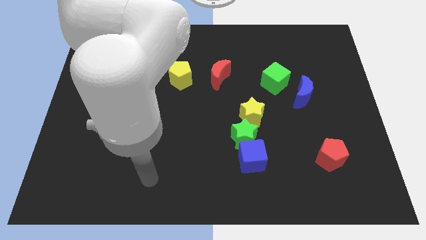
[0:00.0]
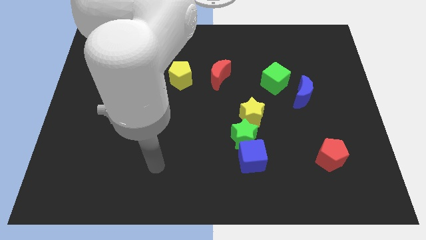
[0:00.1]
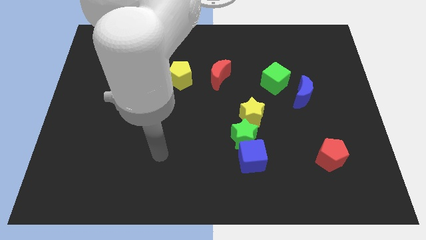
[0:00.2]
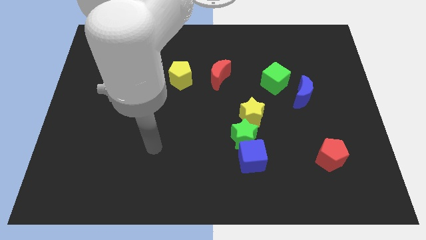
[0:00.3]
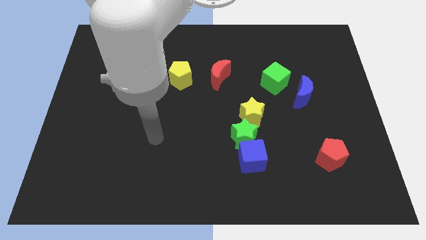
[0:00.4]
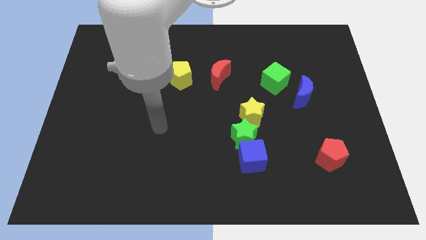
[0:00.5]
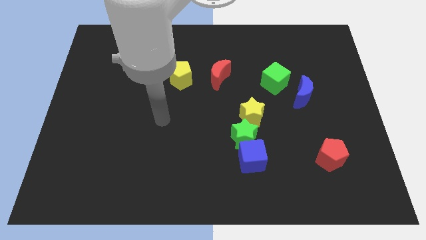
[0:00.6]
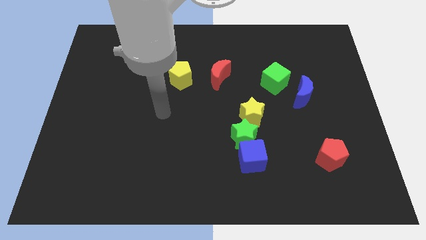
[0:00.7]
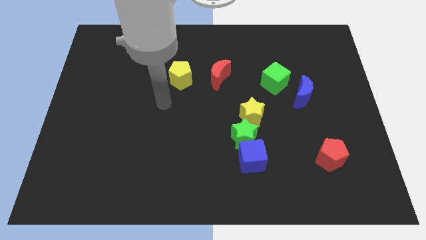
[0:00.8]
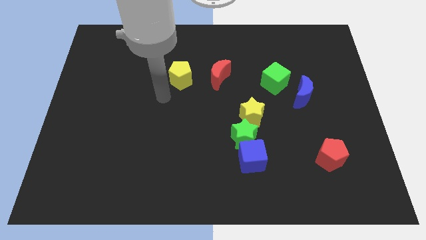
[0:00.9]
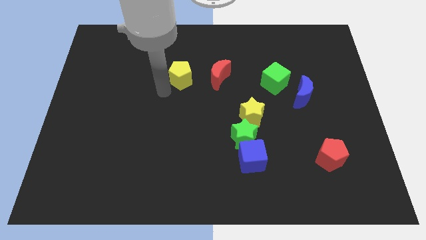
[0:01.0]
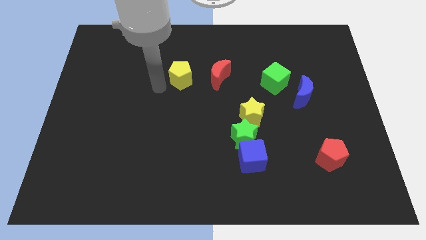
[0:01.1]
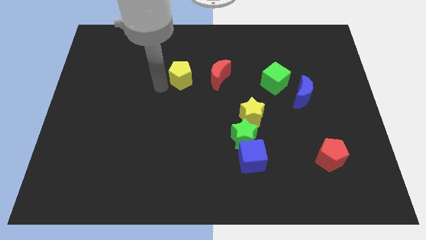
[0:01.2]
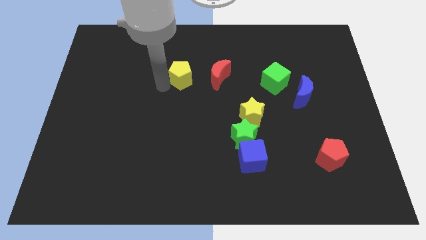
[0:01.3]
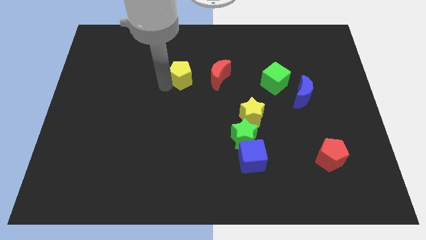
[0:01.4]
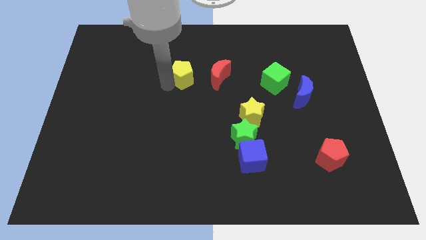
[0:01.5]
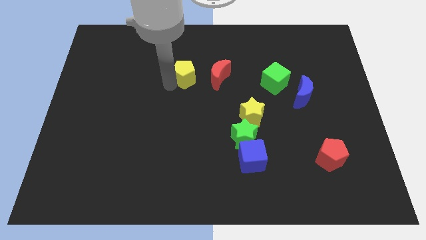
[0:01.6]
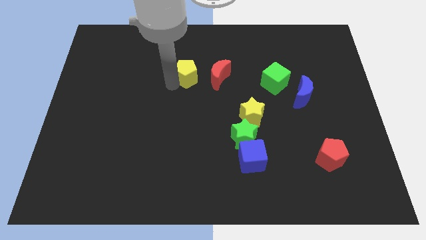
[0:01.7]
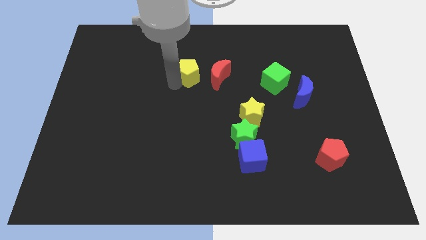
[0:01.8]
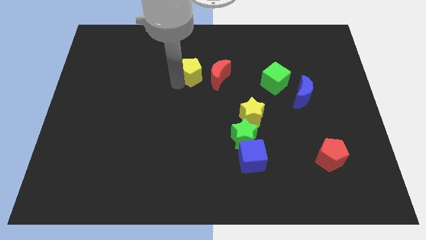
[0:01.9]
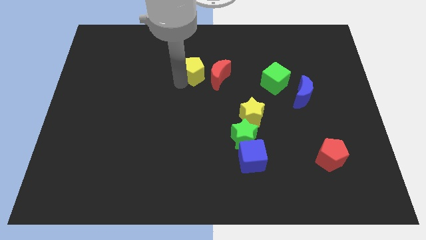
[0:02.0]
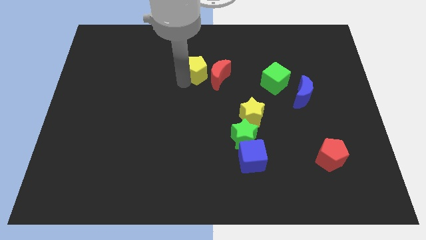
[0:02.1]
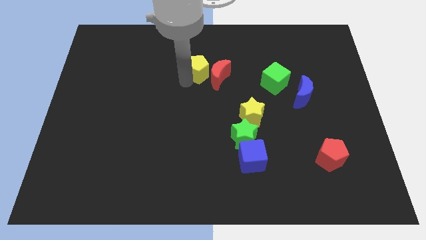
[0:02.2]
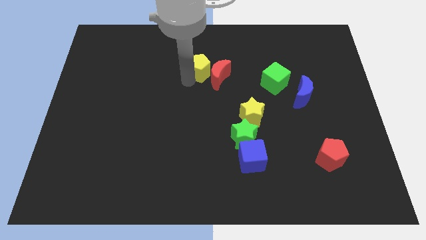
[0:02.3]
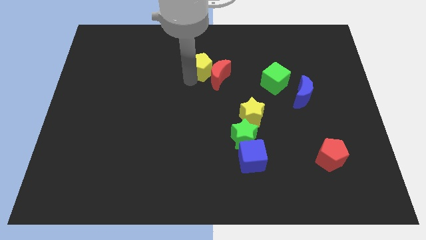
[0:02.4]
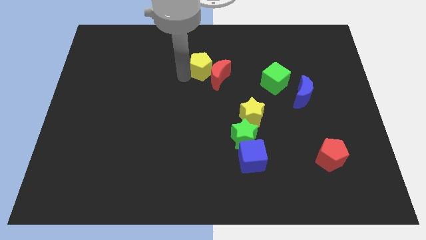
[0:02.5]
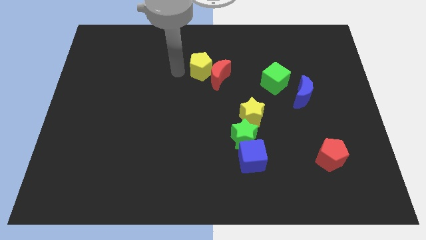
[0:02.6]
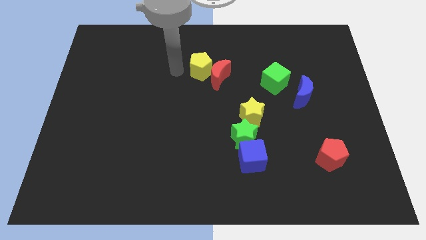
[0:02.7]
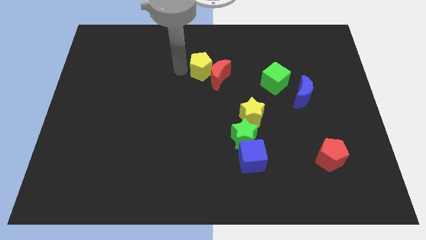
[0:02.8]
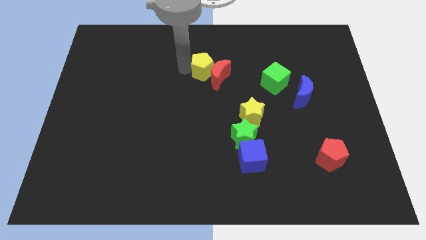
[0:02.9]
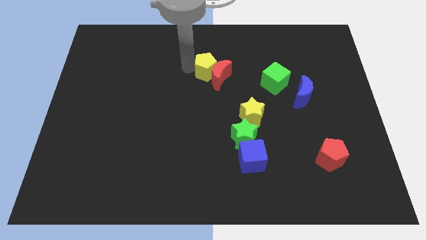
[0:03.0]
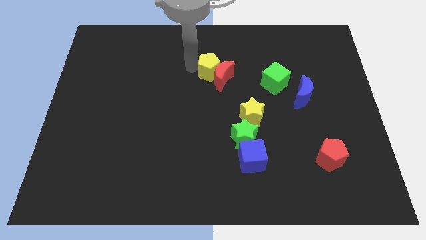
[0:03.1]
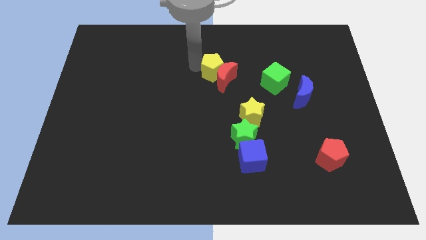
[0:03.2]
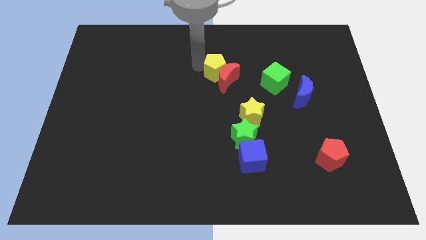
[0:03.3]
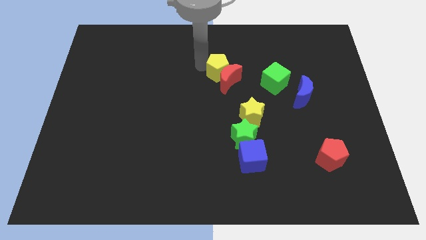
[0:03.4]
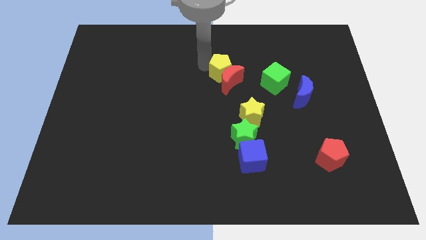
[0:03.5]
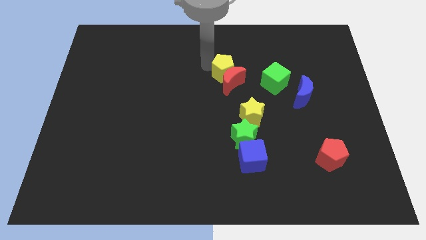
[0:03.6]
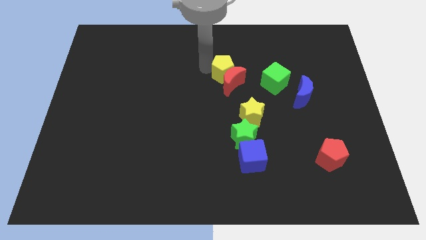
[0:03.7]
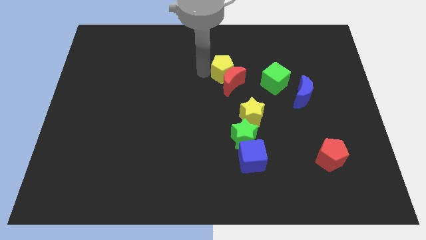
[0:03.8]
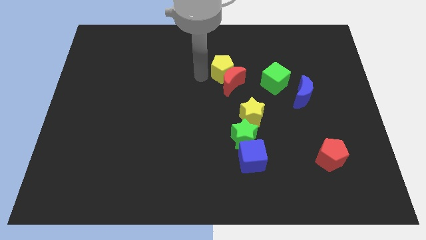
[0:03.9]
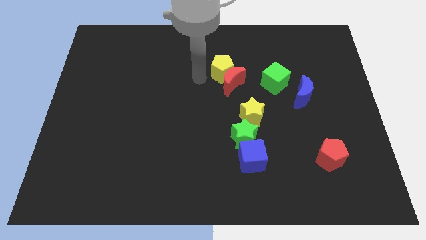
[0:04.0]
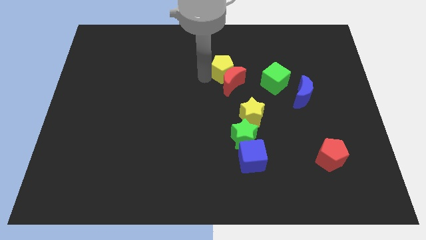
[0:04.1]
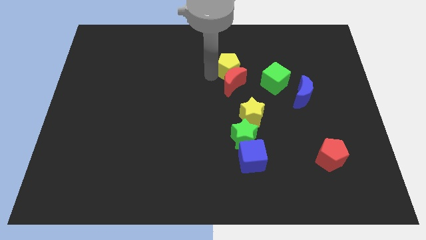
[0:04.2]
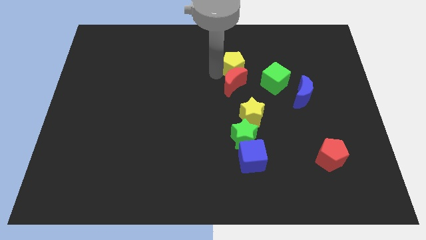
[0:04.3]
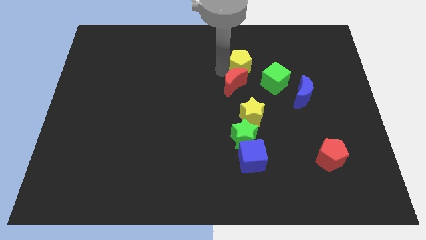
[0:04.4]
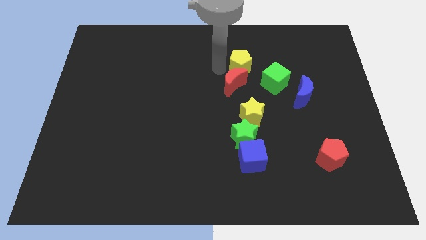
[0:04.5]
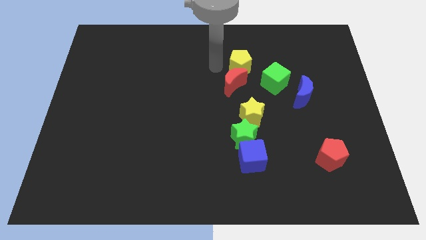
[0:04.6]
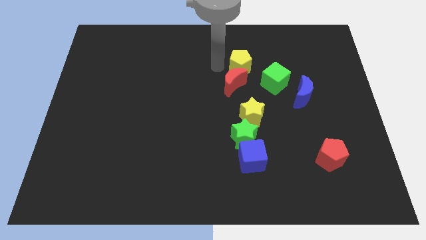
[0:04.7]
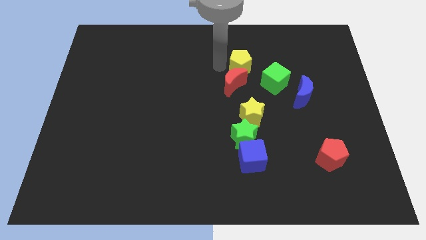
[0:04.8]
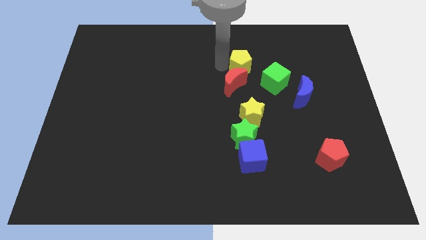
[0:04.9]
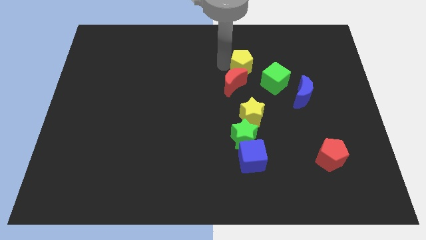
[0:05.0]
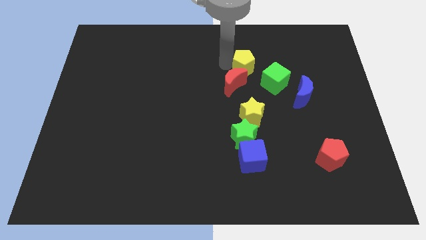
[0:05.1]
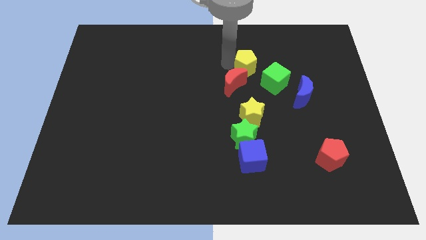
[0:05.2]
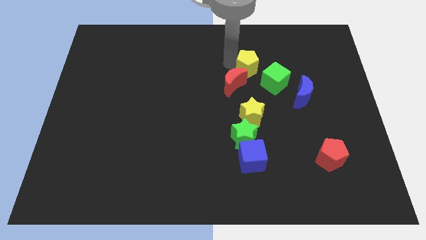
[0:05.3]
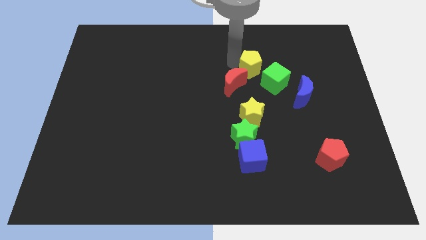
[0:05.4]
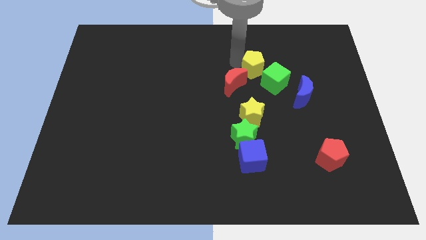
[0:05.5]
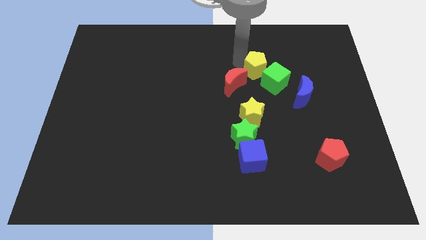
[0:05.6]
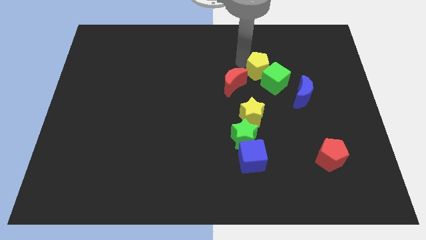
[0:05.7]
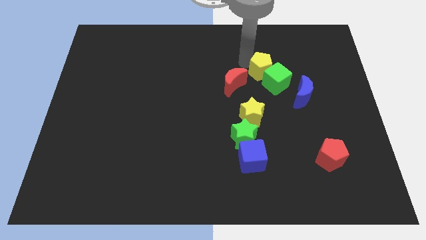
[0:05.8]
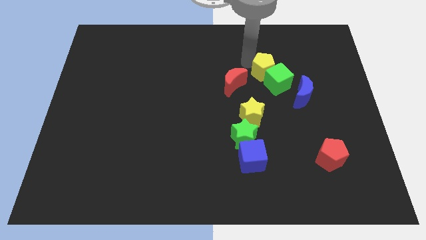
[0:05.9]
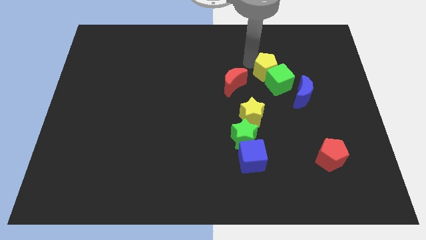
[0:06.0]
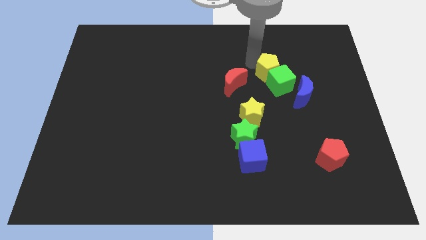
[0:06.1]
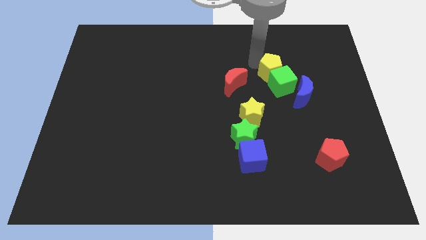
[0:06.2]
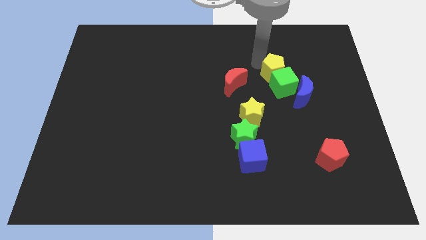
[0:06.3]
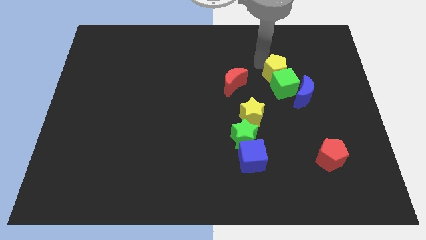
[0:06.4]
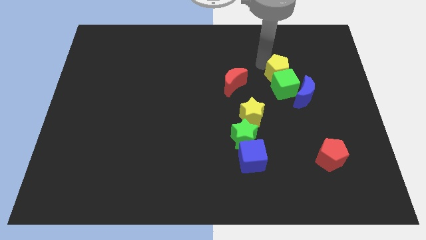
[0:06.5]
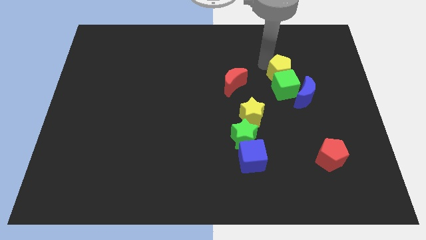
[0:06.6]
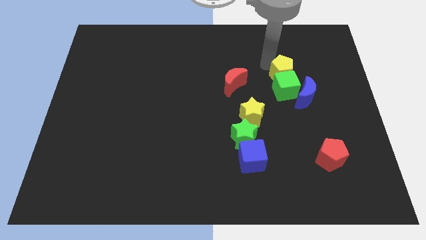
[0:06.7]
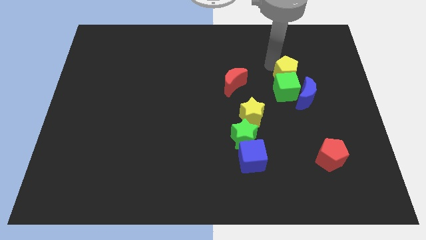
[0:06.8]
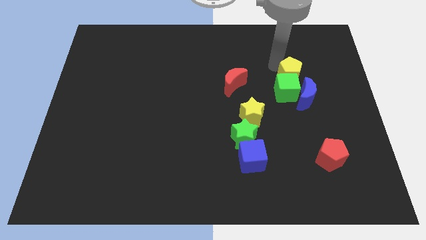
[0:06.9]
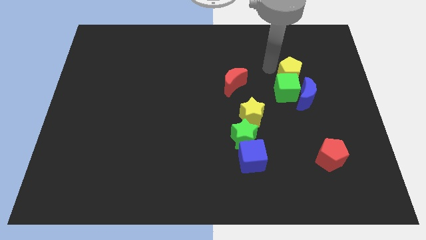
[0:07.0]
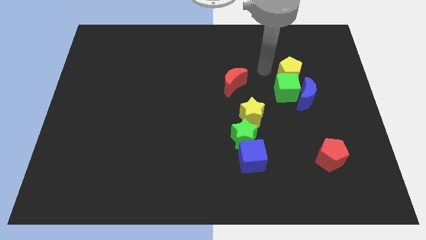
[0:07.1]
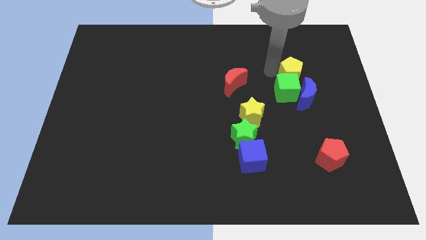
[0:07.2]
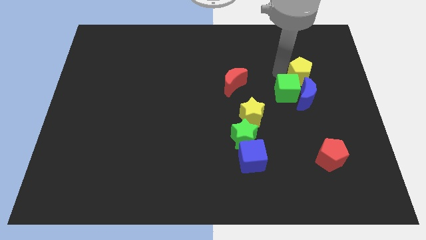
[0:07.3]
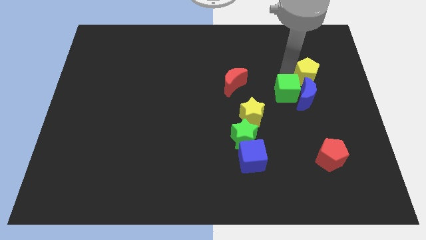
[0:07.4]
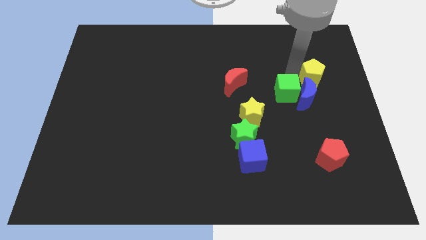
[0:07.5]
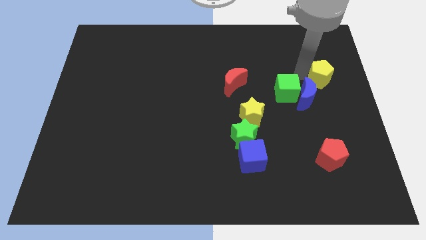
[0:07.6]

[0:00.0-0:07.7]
slide the yellow pentagon to the right side of the board
